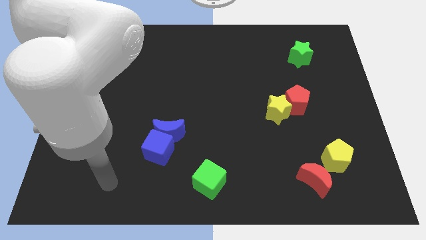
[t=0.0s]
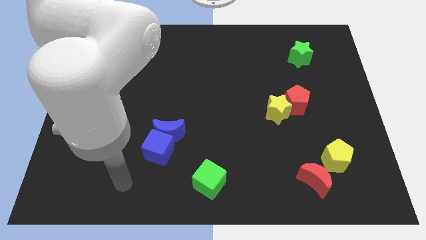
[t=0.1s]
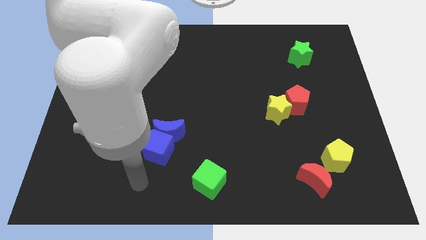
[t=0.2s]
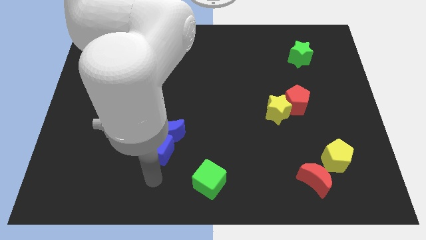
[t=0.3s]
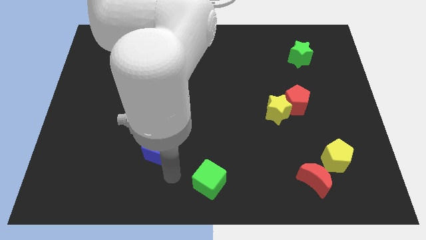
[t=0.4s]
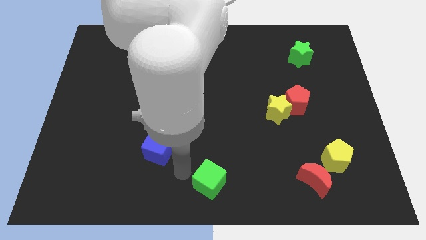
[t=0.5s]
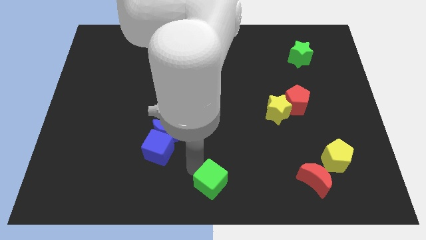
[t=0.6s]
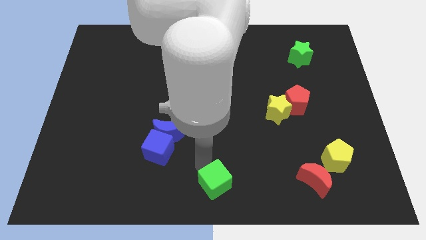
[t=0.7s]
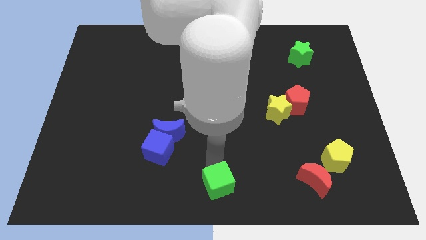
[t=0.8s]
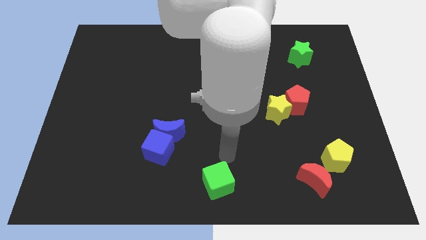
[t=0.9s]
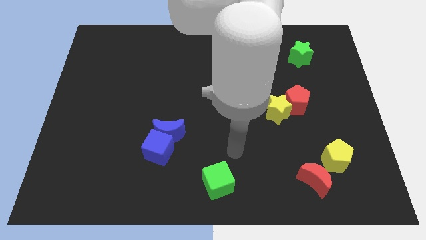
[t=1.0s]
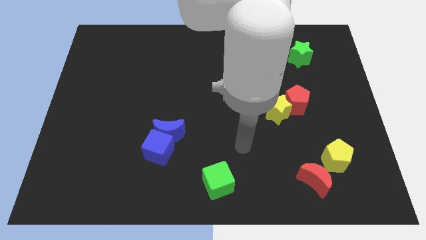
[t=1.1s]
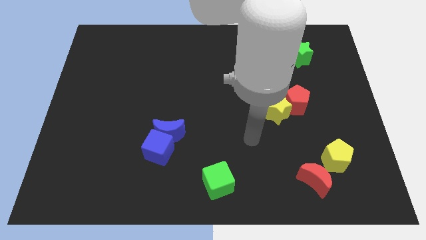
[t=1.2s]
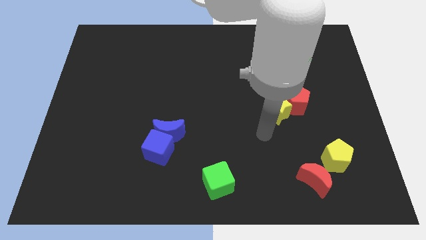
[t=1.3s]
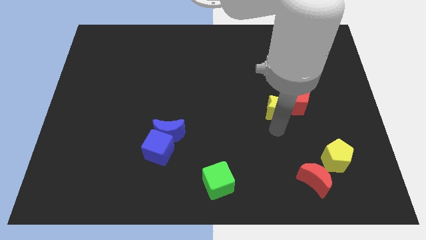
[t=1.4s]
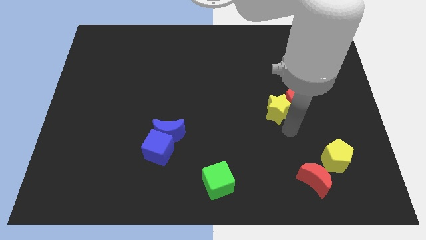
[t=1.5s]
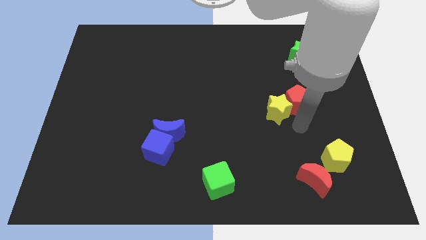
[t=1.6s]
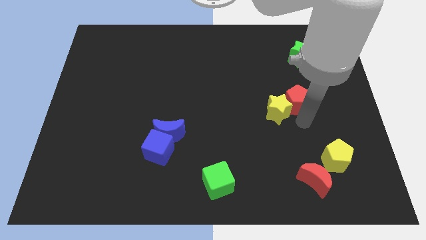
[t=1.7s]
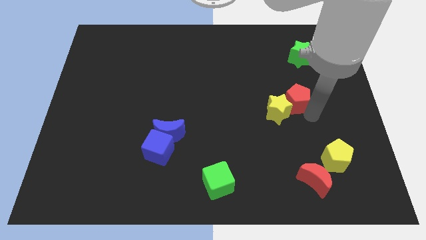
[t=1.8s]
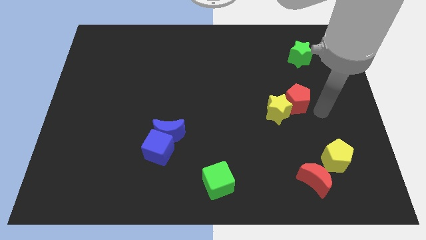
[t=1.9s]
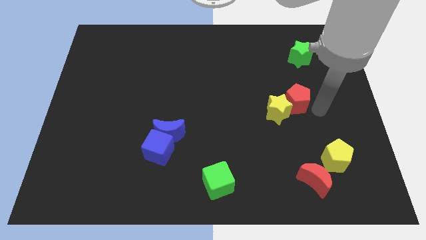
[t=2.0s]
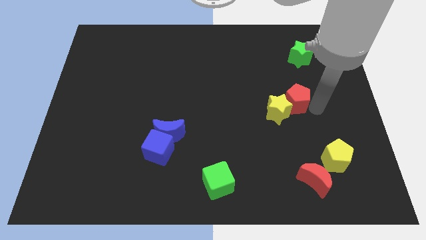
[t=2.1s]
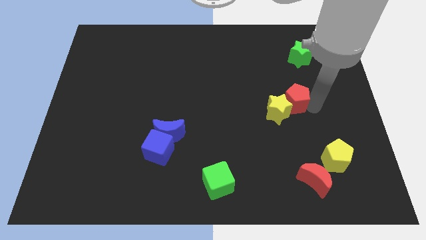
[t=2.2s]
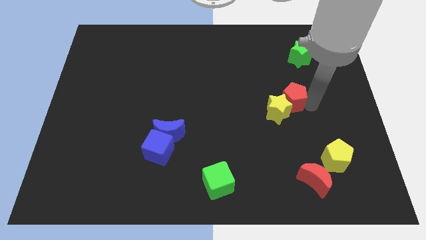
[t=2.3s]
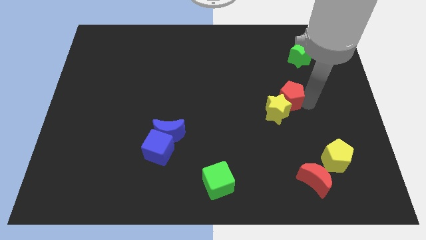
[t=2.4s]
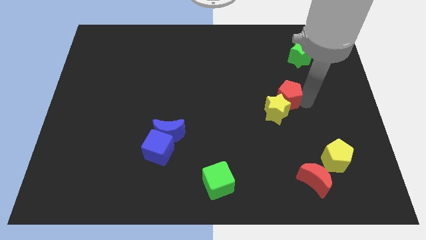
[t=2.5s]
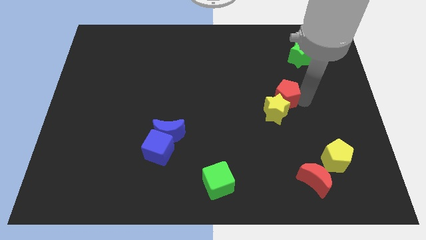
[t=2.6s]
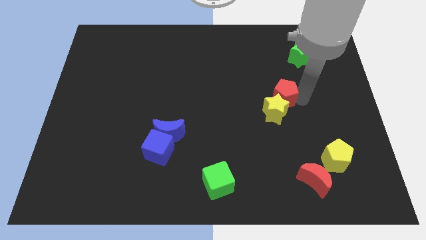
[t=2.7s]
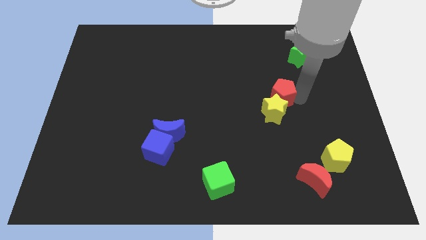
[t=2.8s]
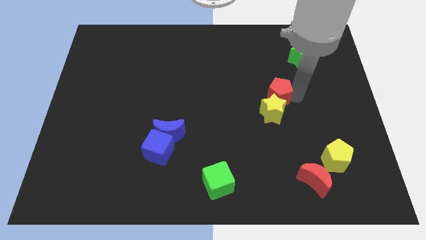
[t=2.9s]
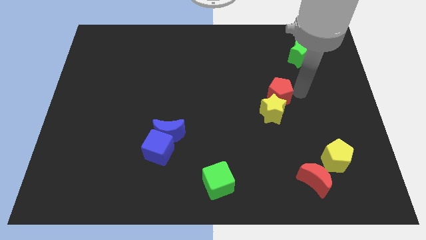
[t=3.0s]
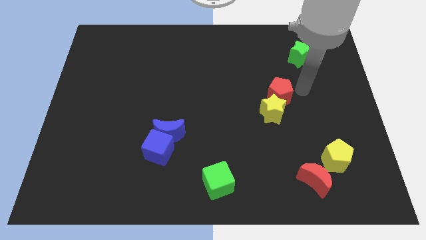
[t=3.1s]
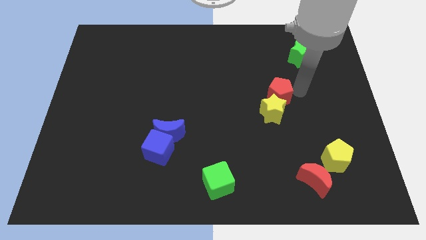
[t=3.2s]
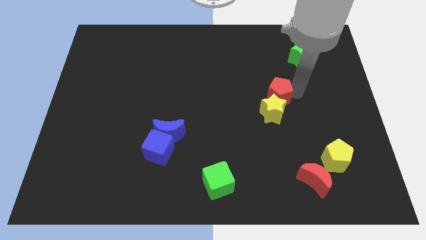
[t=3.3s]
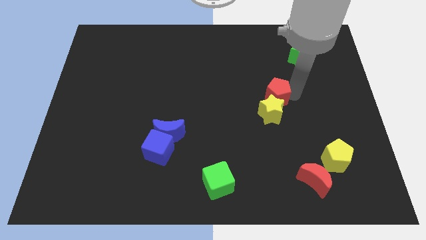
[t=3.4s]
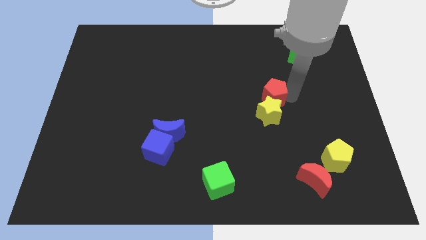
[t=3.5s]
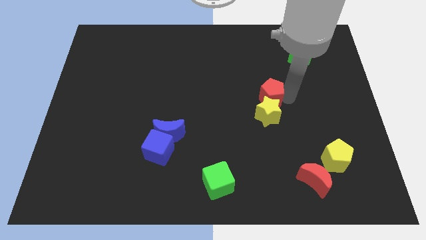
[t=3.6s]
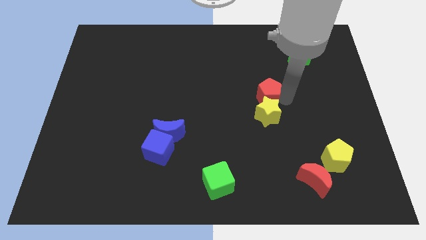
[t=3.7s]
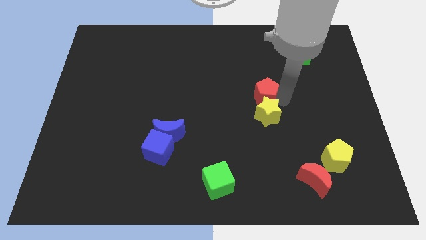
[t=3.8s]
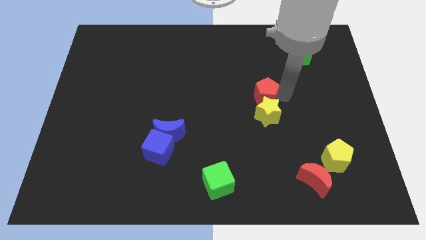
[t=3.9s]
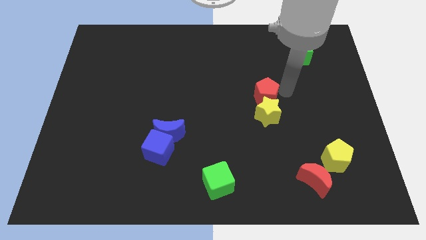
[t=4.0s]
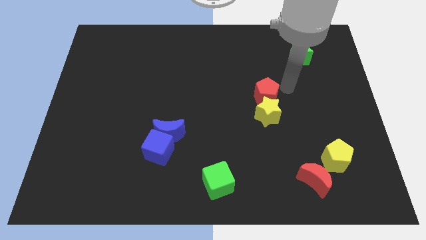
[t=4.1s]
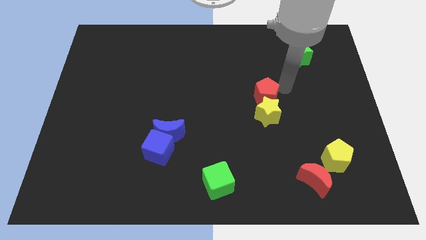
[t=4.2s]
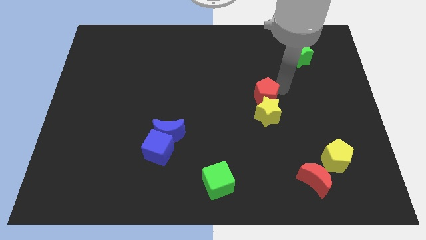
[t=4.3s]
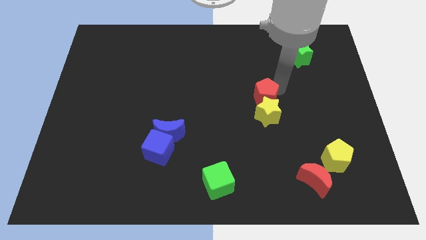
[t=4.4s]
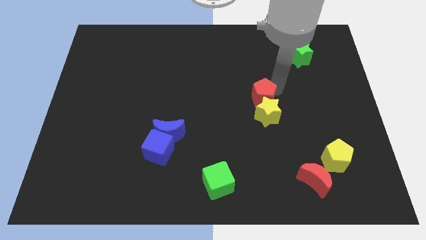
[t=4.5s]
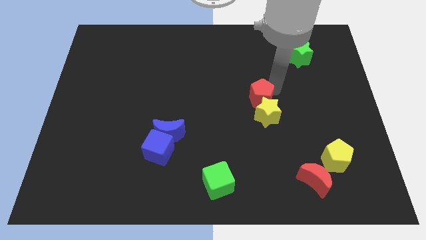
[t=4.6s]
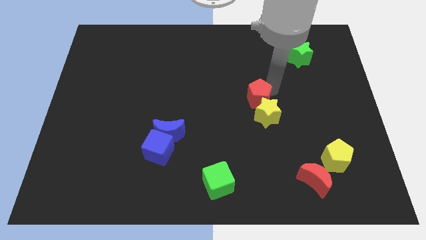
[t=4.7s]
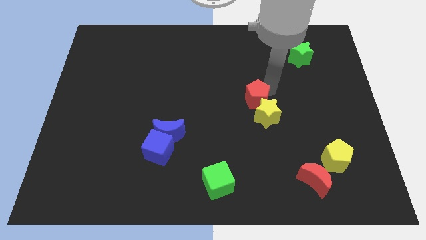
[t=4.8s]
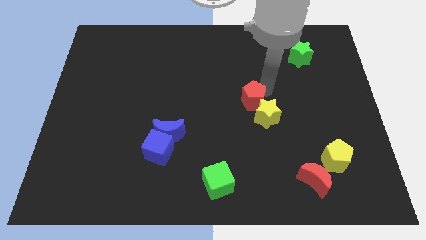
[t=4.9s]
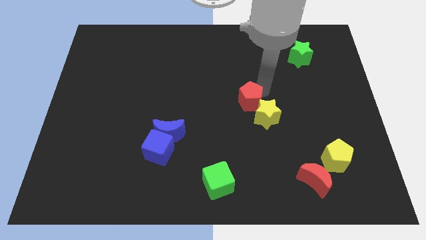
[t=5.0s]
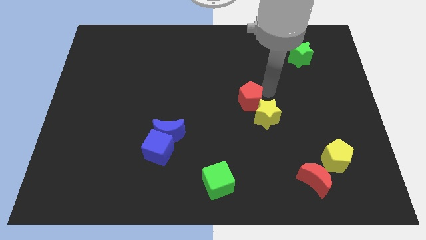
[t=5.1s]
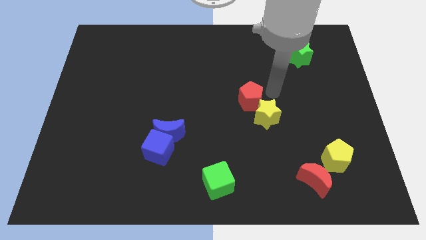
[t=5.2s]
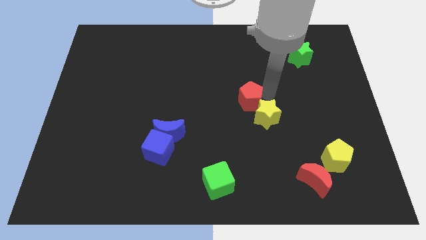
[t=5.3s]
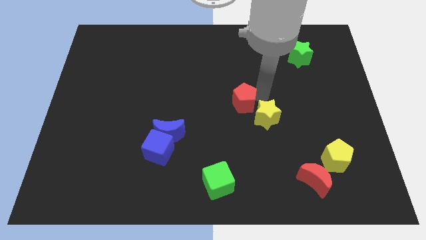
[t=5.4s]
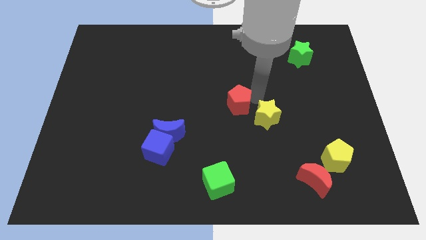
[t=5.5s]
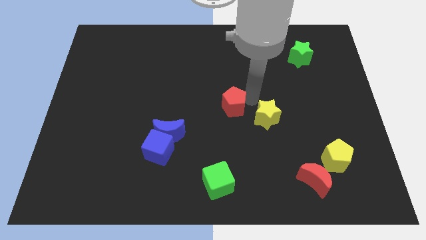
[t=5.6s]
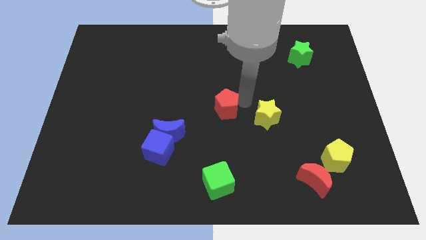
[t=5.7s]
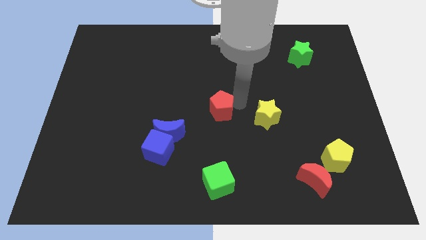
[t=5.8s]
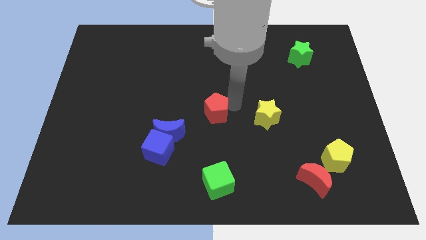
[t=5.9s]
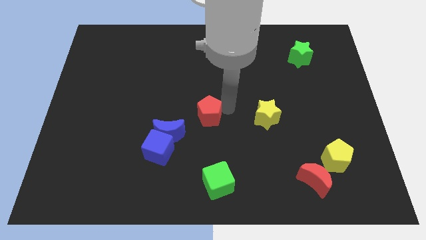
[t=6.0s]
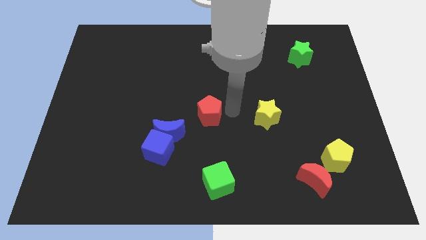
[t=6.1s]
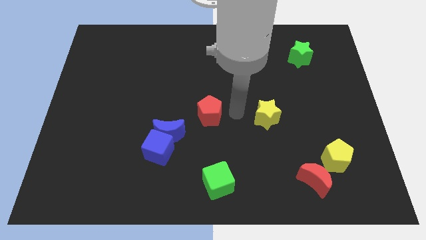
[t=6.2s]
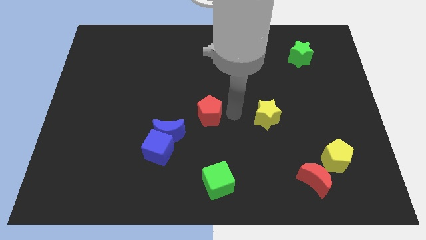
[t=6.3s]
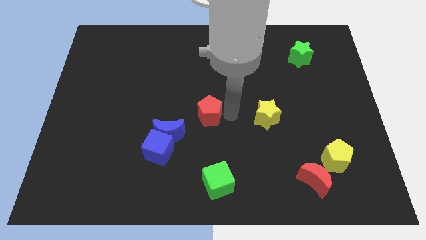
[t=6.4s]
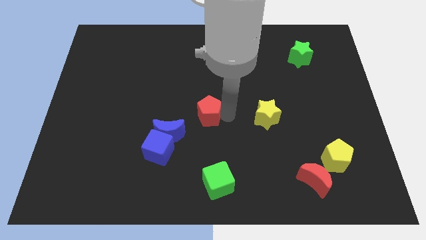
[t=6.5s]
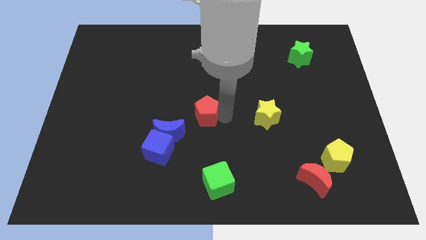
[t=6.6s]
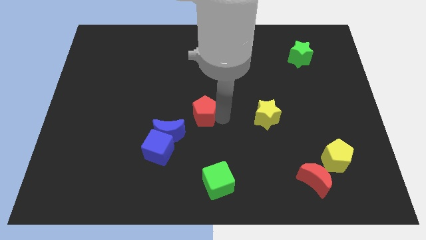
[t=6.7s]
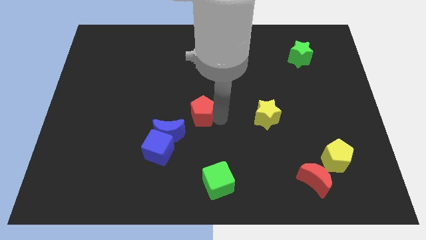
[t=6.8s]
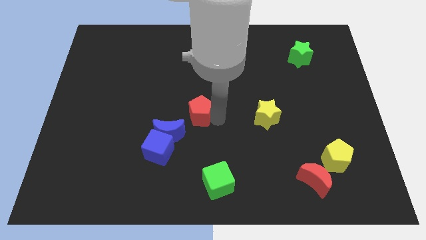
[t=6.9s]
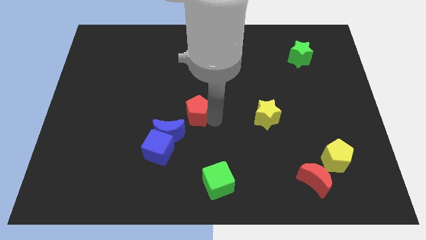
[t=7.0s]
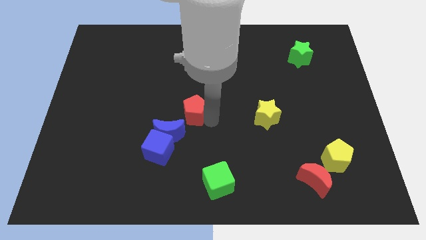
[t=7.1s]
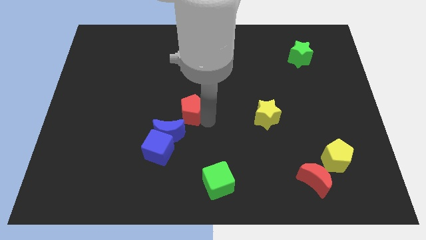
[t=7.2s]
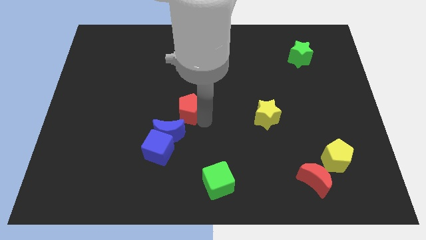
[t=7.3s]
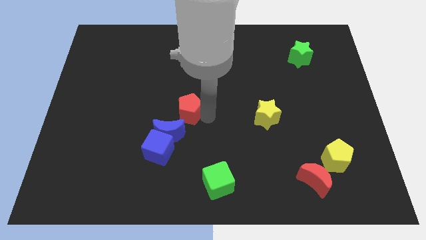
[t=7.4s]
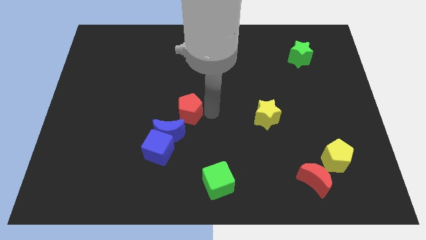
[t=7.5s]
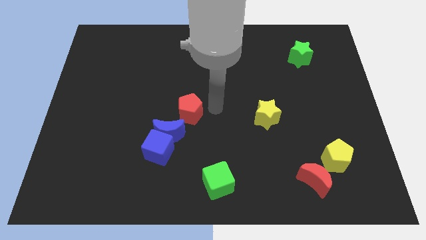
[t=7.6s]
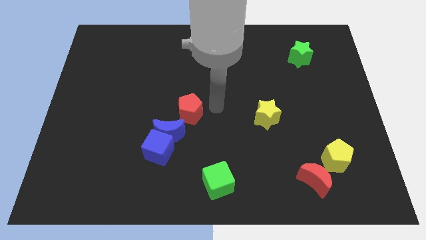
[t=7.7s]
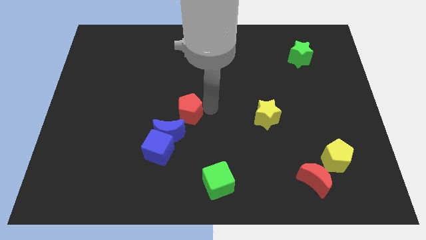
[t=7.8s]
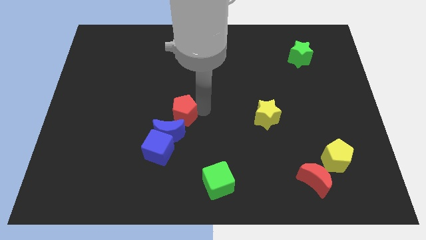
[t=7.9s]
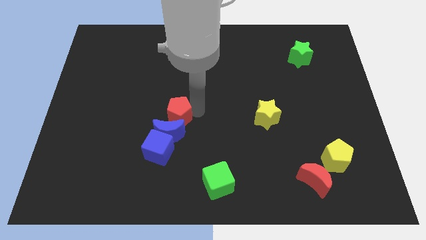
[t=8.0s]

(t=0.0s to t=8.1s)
put the red pentagon towards the blue moon
